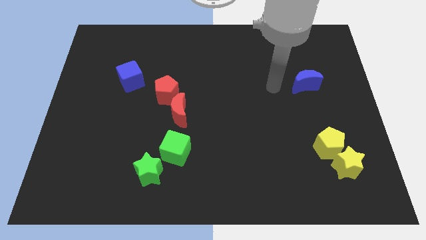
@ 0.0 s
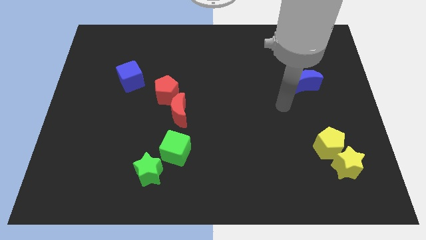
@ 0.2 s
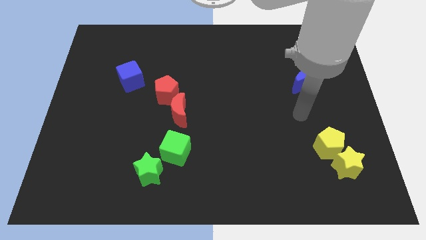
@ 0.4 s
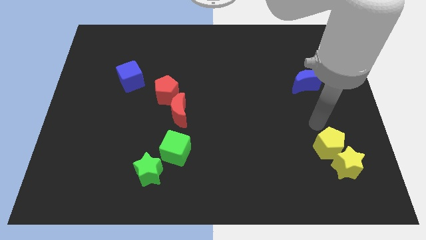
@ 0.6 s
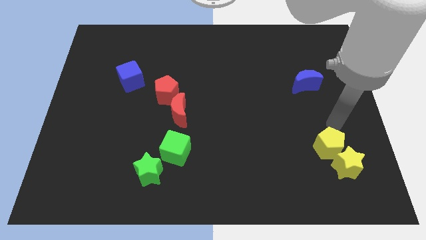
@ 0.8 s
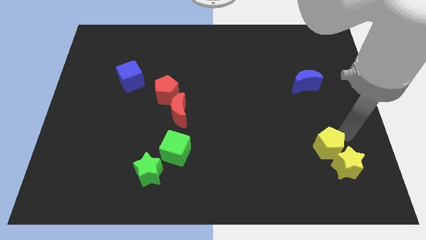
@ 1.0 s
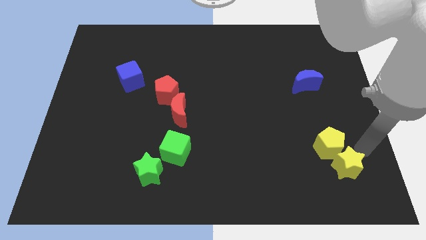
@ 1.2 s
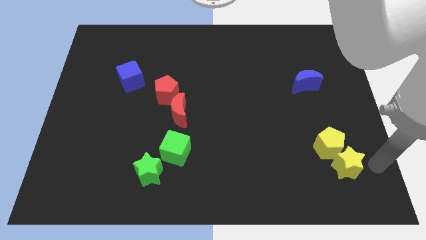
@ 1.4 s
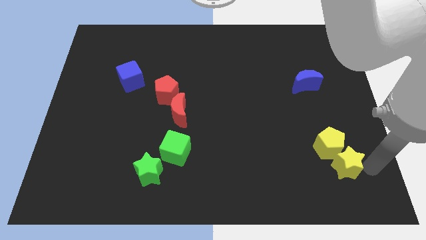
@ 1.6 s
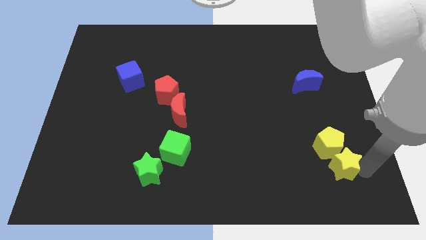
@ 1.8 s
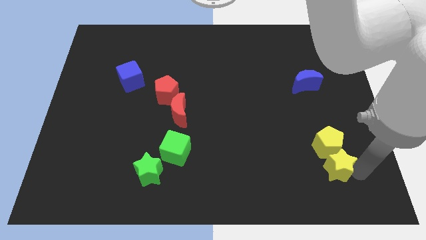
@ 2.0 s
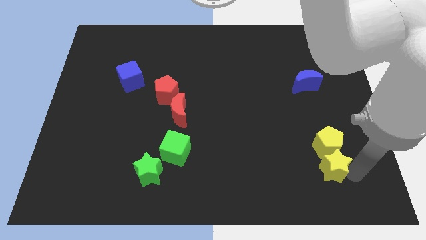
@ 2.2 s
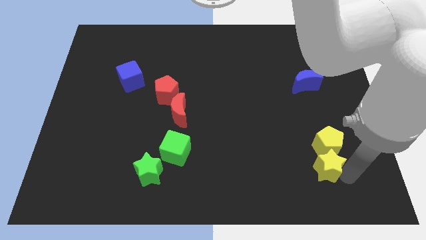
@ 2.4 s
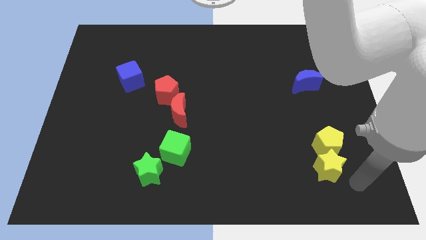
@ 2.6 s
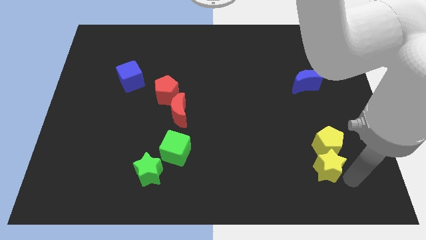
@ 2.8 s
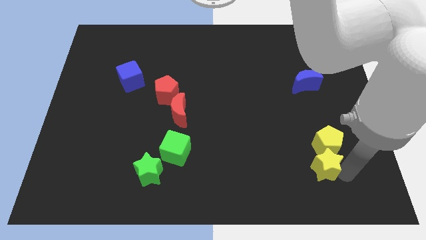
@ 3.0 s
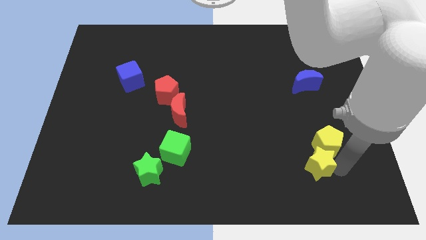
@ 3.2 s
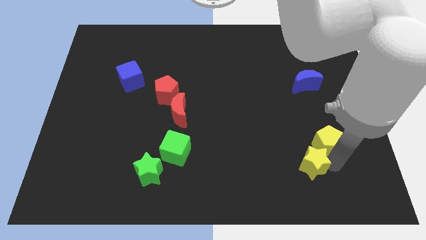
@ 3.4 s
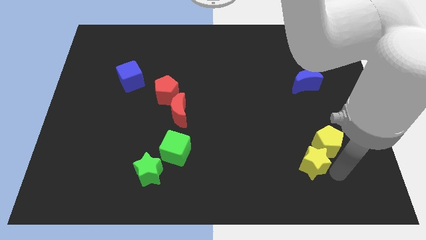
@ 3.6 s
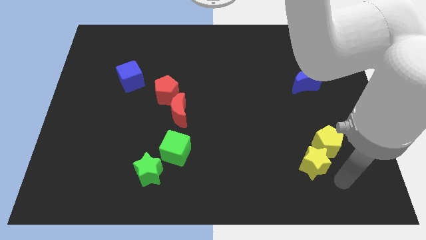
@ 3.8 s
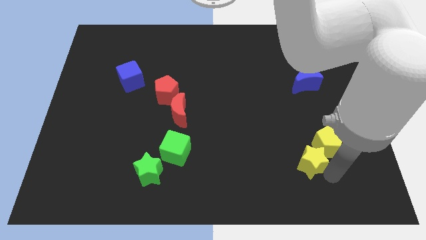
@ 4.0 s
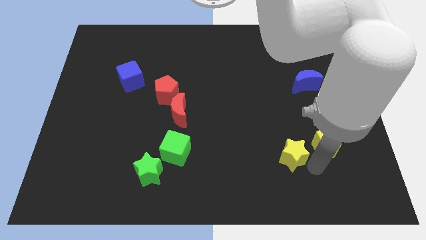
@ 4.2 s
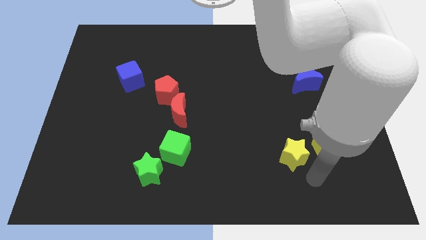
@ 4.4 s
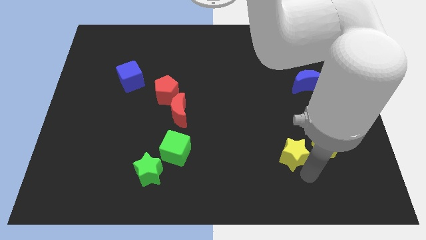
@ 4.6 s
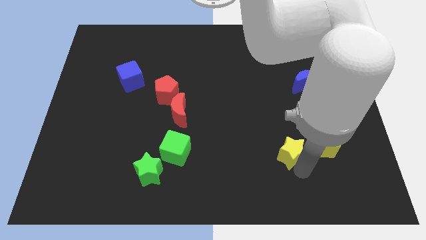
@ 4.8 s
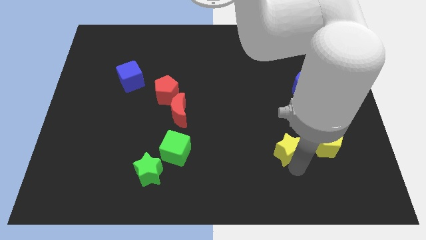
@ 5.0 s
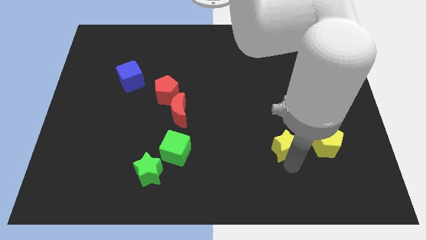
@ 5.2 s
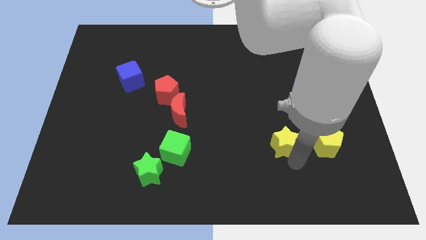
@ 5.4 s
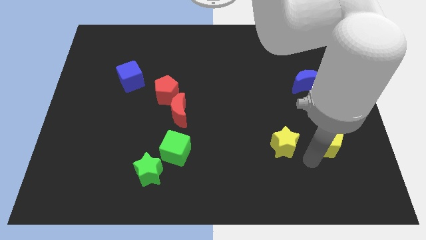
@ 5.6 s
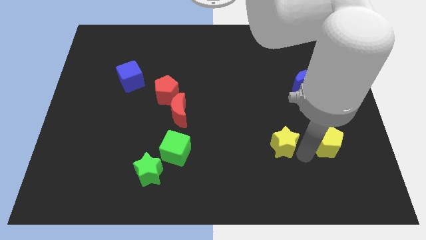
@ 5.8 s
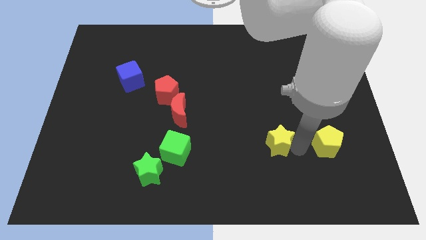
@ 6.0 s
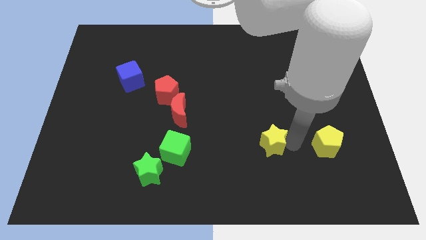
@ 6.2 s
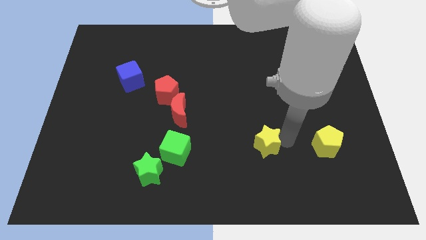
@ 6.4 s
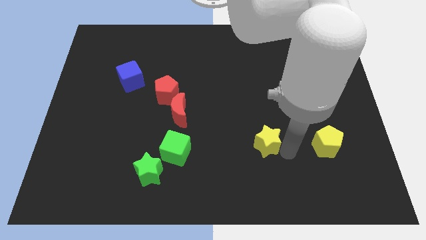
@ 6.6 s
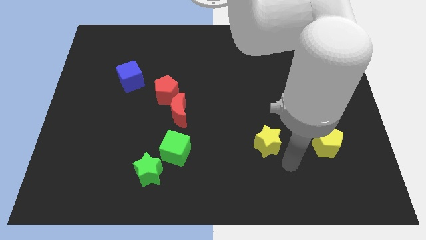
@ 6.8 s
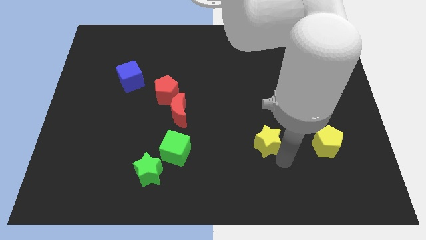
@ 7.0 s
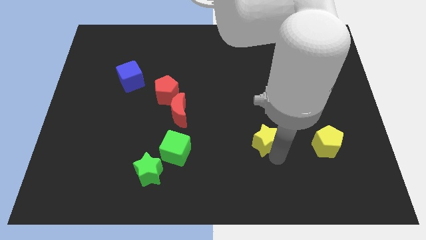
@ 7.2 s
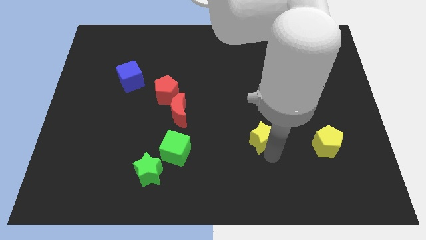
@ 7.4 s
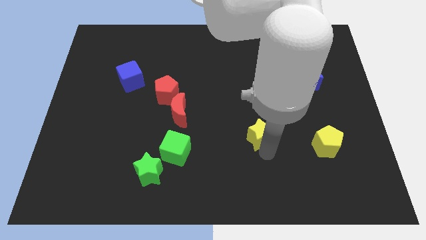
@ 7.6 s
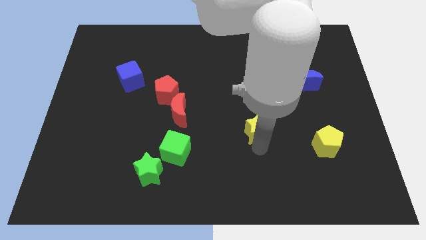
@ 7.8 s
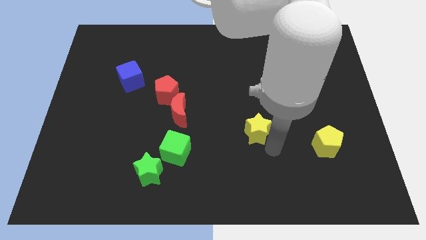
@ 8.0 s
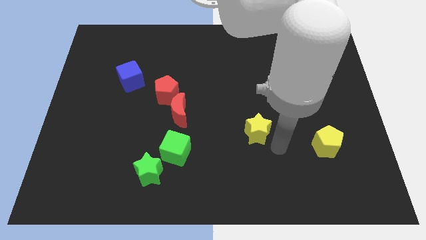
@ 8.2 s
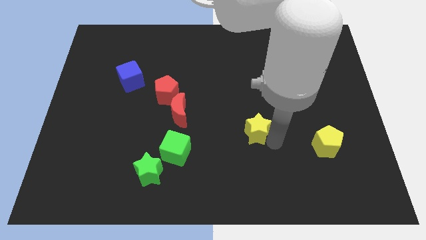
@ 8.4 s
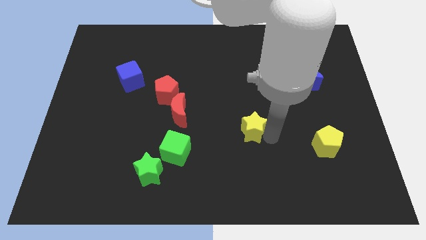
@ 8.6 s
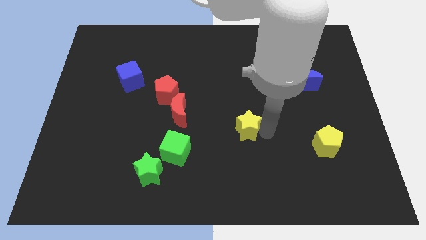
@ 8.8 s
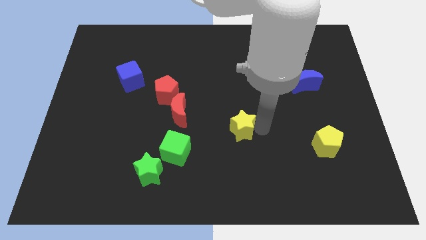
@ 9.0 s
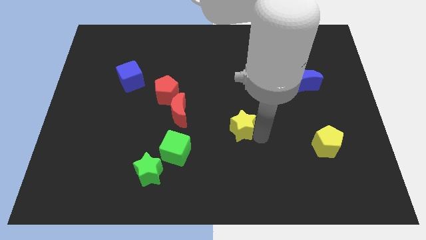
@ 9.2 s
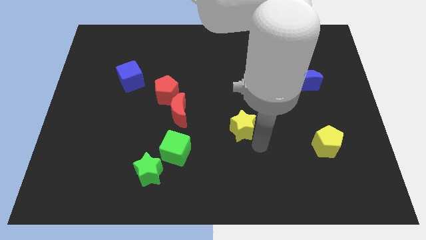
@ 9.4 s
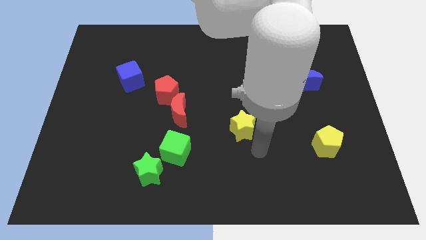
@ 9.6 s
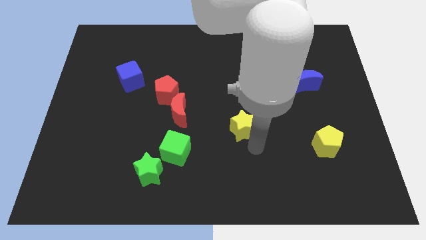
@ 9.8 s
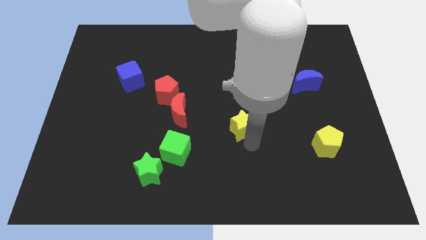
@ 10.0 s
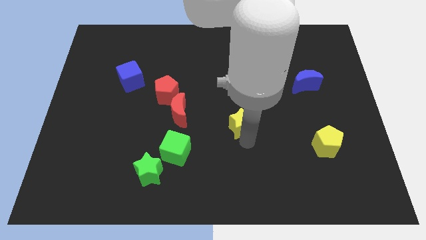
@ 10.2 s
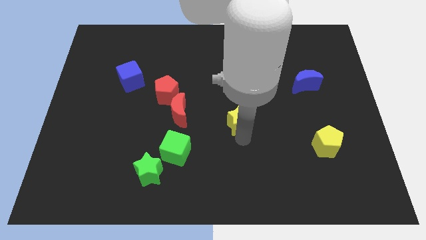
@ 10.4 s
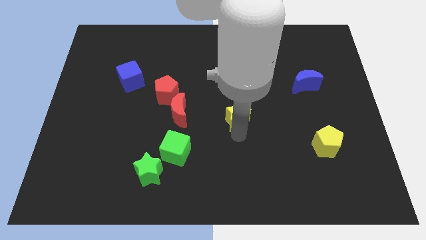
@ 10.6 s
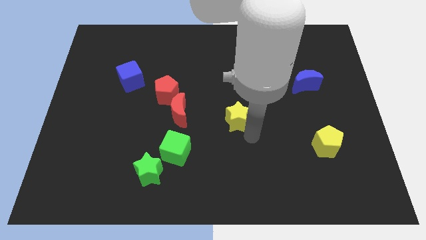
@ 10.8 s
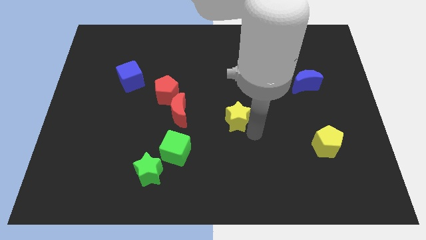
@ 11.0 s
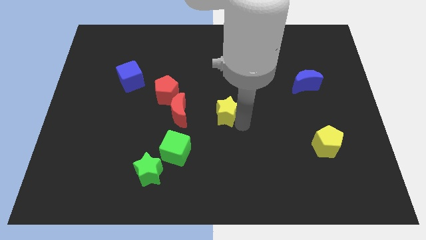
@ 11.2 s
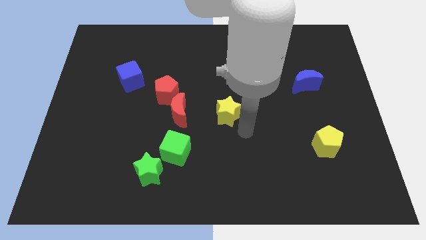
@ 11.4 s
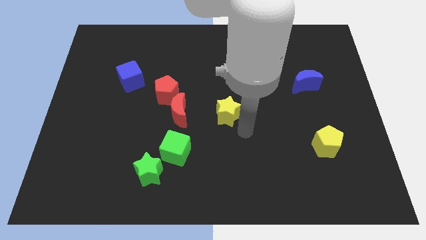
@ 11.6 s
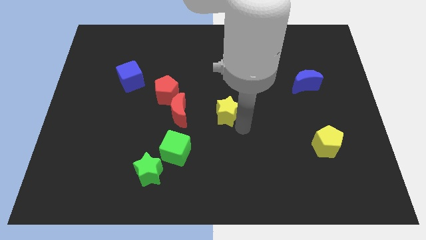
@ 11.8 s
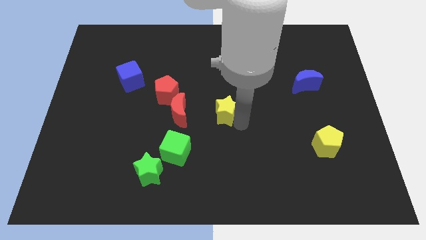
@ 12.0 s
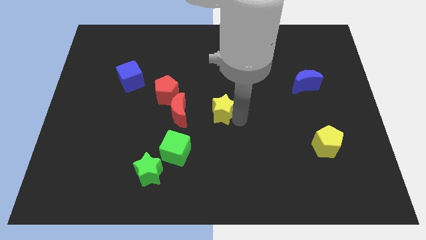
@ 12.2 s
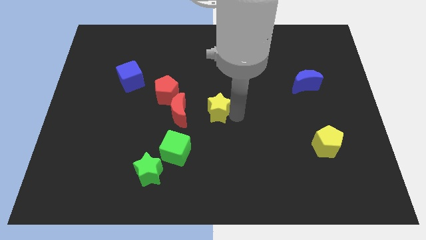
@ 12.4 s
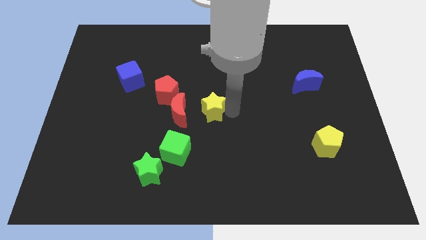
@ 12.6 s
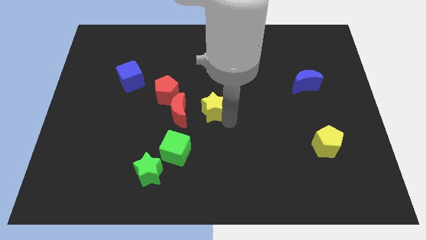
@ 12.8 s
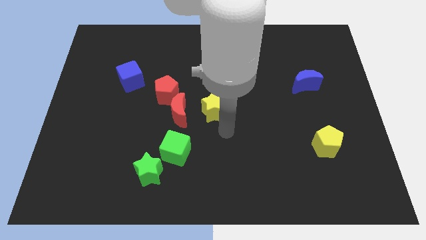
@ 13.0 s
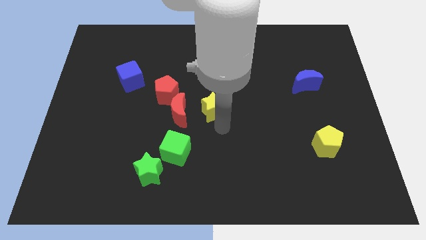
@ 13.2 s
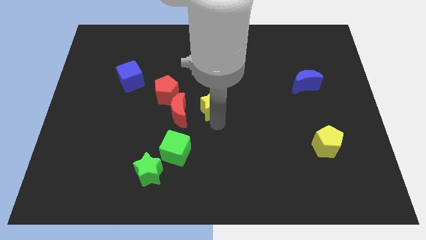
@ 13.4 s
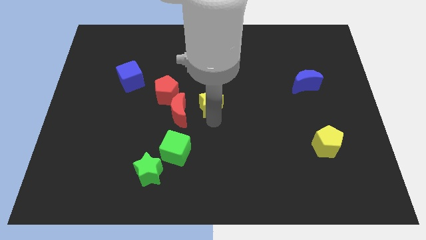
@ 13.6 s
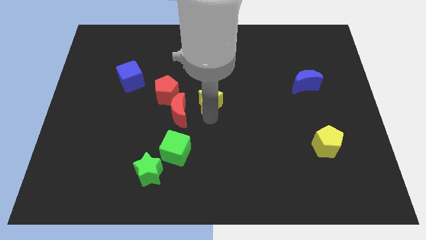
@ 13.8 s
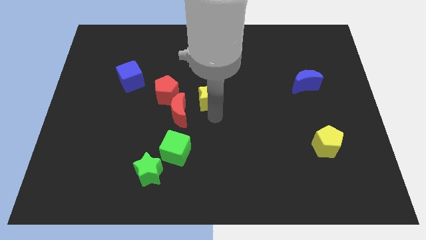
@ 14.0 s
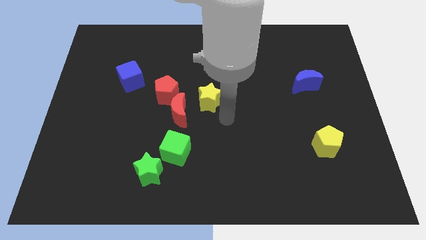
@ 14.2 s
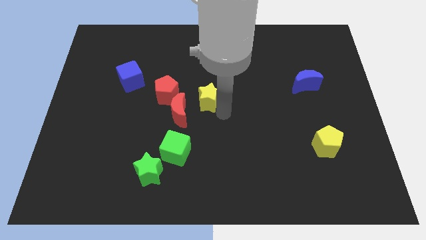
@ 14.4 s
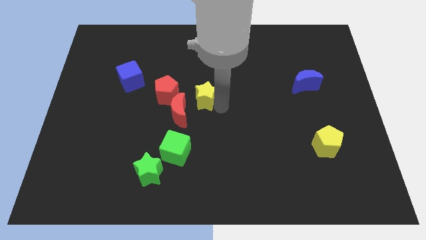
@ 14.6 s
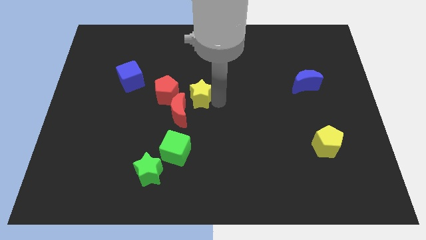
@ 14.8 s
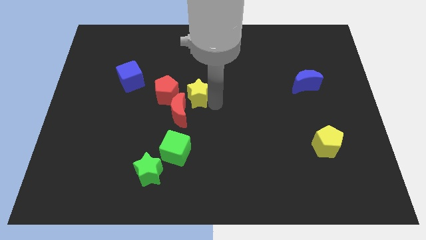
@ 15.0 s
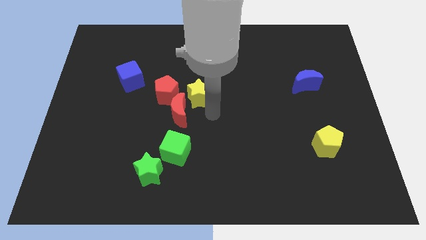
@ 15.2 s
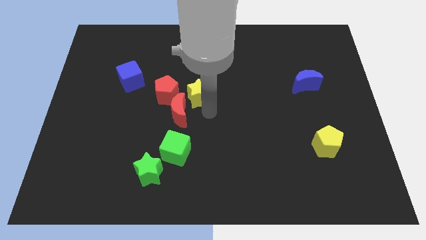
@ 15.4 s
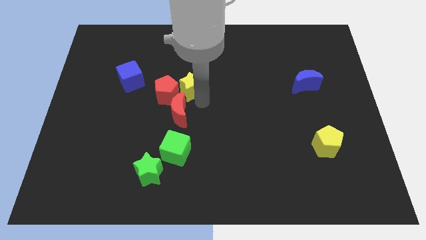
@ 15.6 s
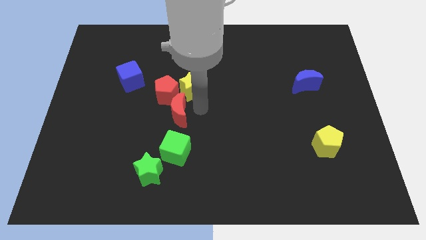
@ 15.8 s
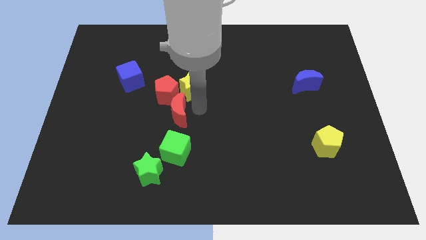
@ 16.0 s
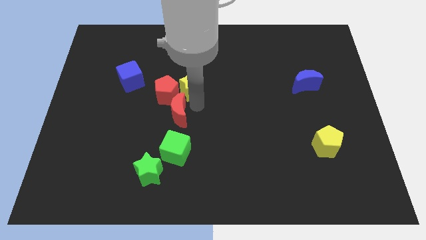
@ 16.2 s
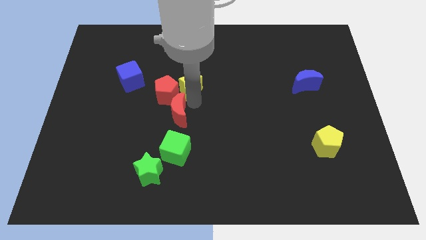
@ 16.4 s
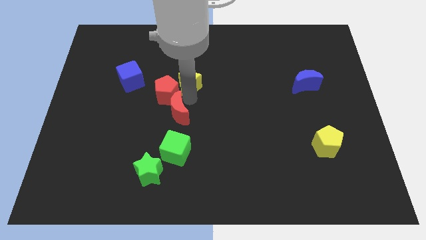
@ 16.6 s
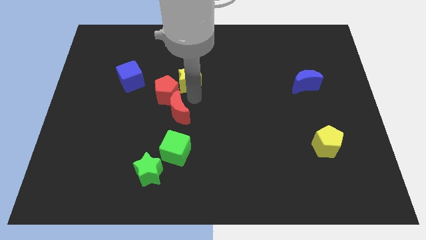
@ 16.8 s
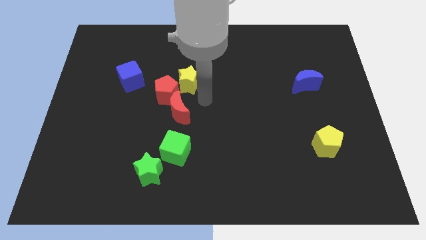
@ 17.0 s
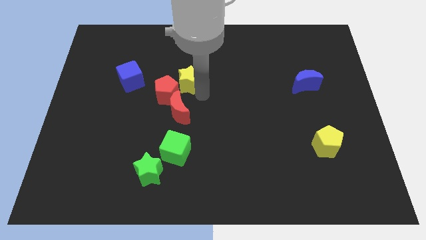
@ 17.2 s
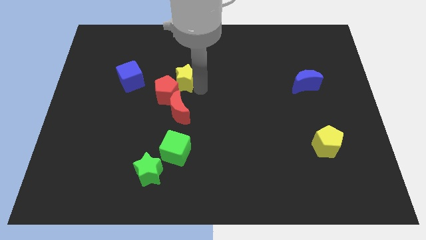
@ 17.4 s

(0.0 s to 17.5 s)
move the yellow star above the red pentagon
